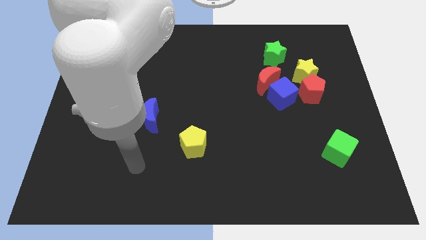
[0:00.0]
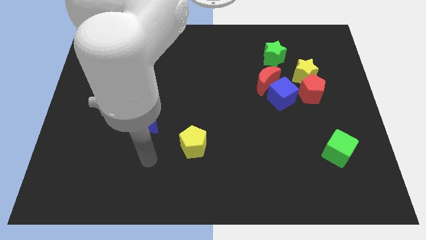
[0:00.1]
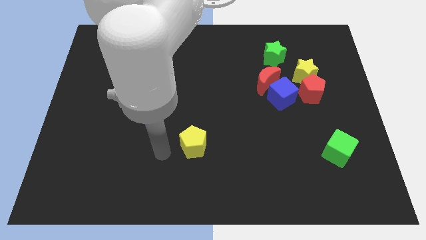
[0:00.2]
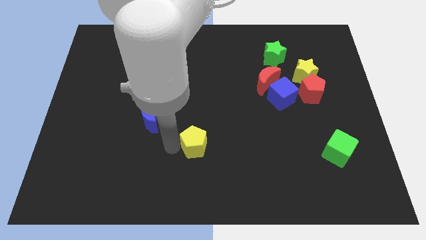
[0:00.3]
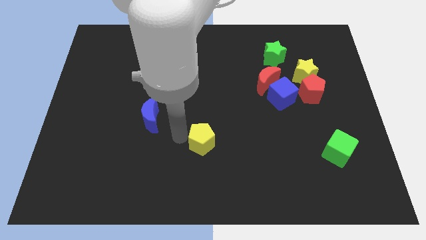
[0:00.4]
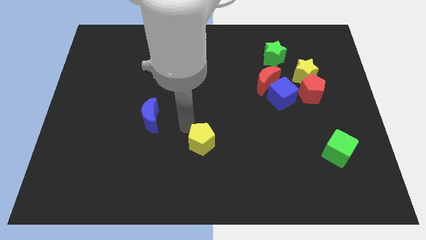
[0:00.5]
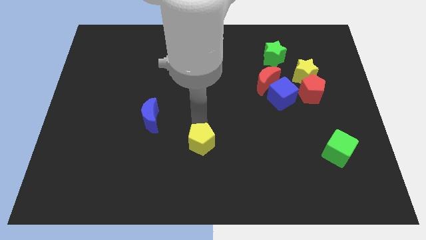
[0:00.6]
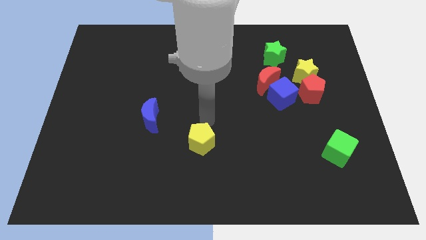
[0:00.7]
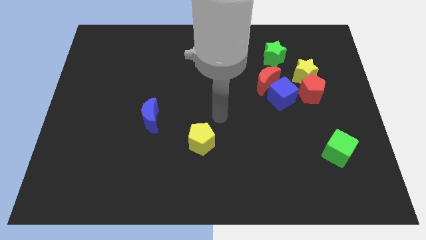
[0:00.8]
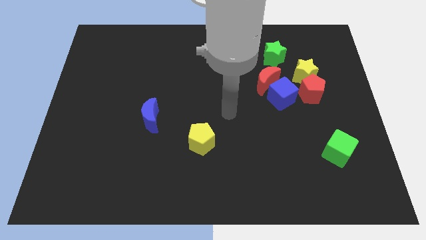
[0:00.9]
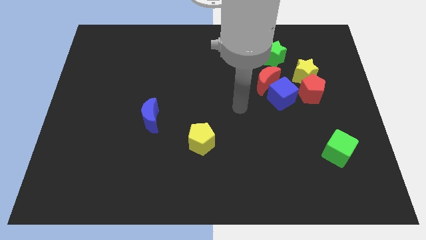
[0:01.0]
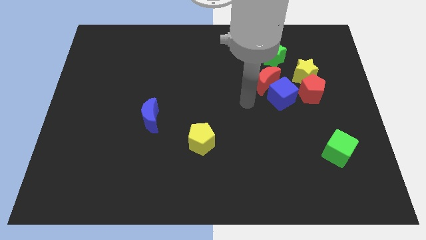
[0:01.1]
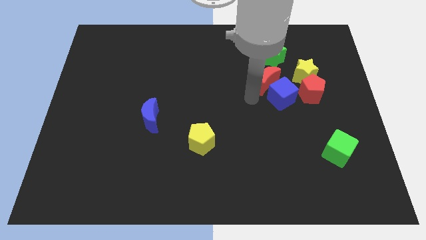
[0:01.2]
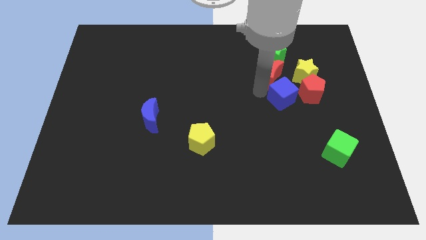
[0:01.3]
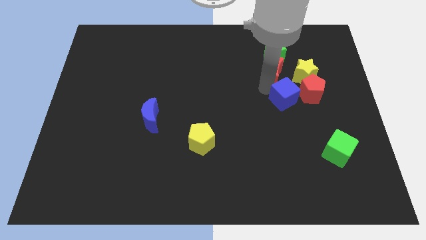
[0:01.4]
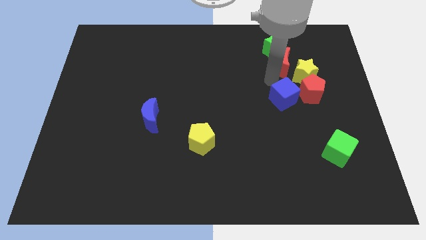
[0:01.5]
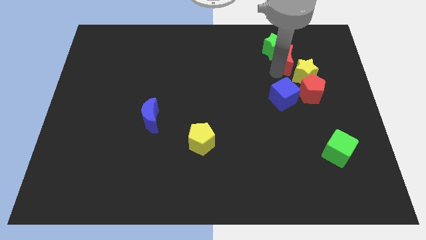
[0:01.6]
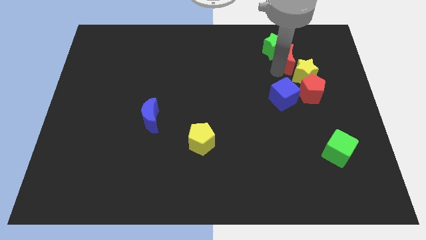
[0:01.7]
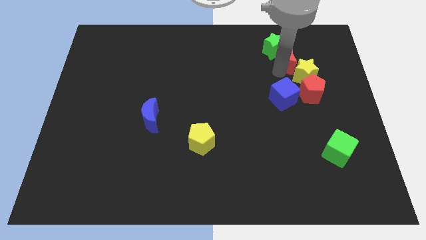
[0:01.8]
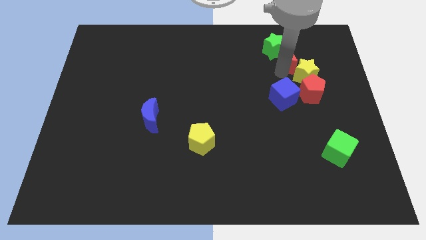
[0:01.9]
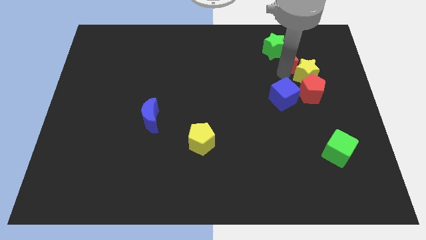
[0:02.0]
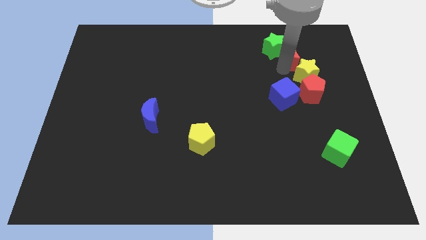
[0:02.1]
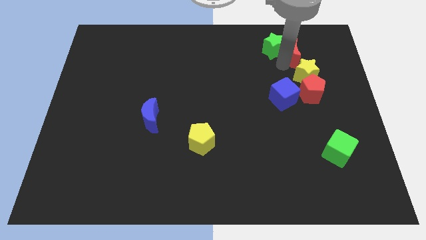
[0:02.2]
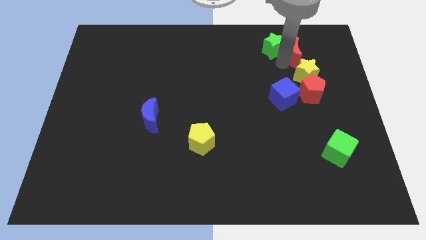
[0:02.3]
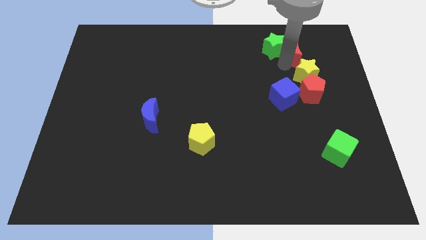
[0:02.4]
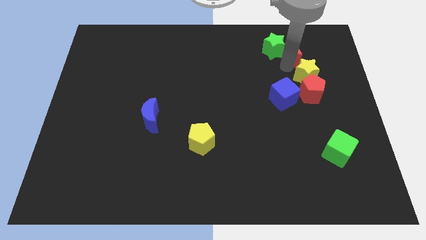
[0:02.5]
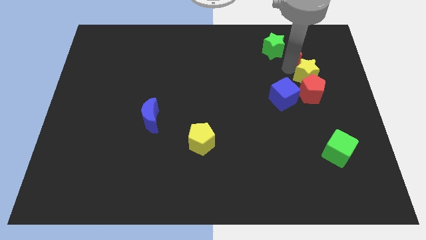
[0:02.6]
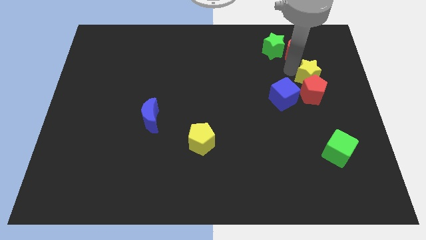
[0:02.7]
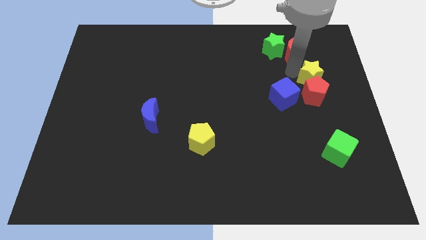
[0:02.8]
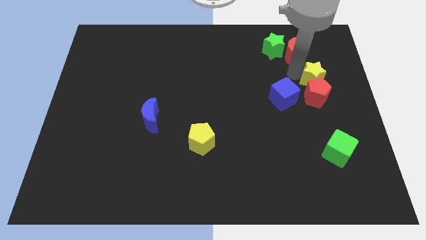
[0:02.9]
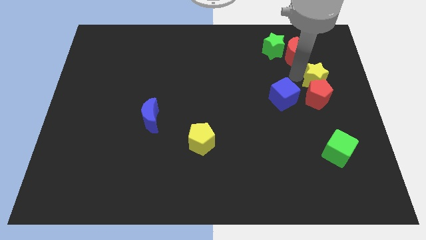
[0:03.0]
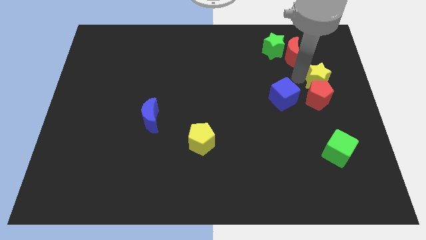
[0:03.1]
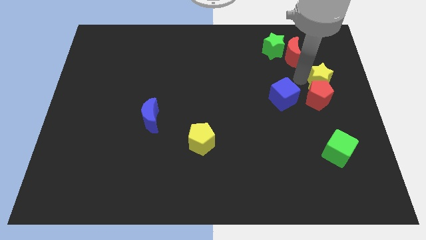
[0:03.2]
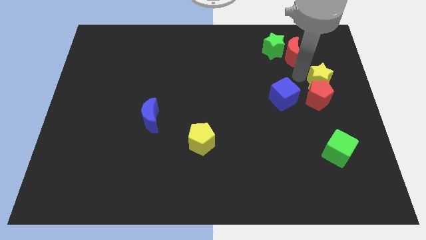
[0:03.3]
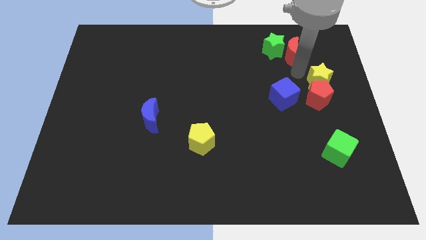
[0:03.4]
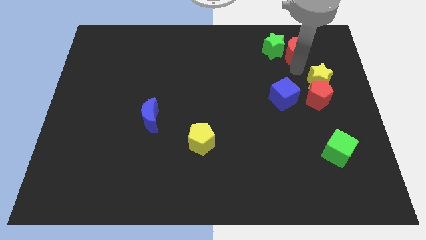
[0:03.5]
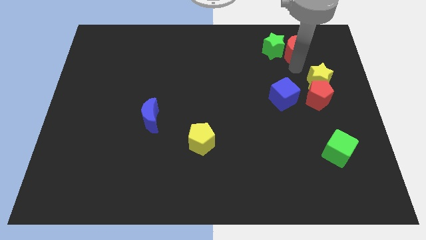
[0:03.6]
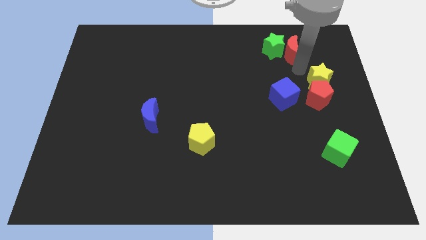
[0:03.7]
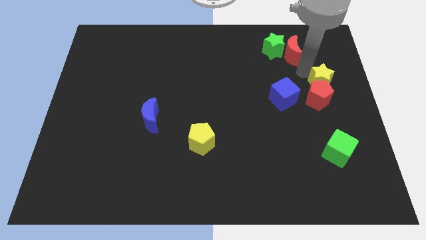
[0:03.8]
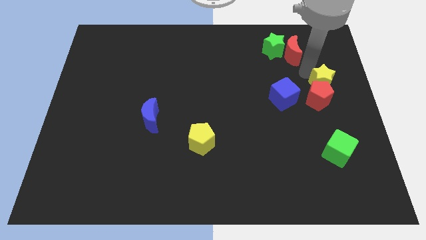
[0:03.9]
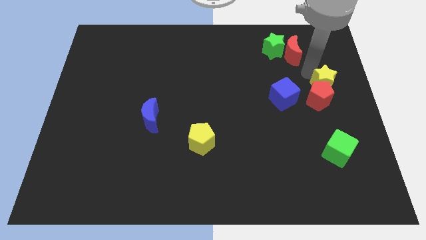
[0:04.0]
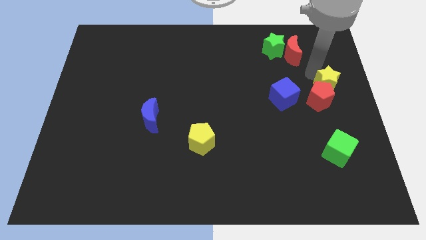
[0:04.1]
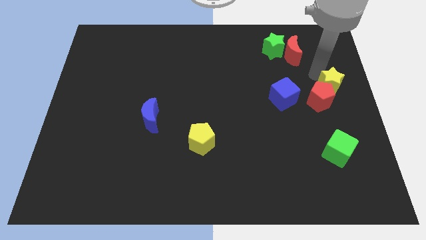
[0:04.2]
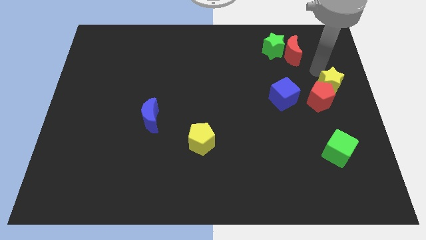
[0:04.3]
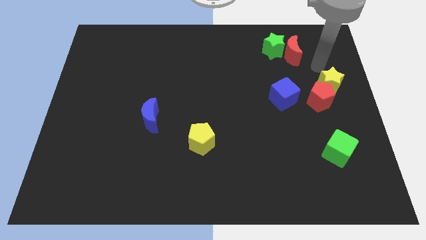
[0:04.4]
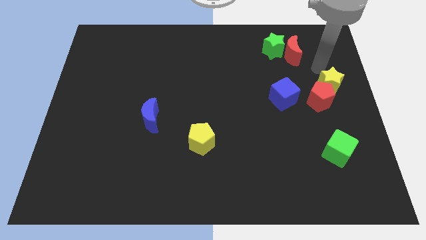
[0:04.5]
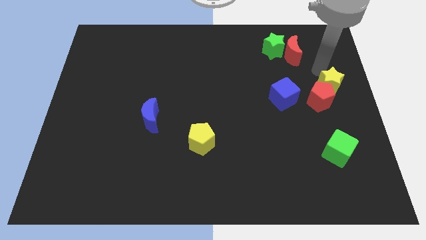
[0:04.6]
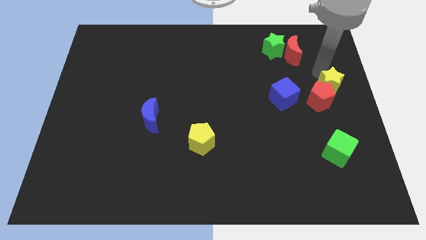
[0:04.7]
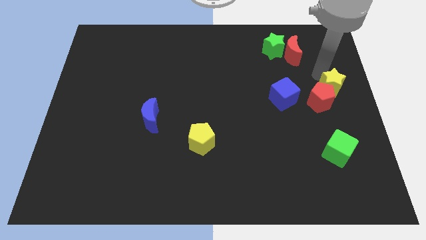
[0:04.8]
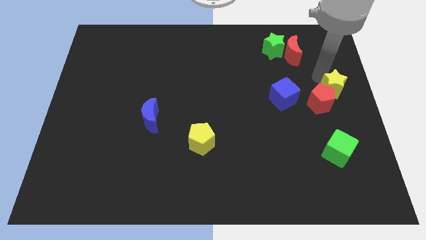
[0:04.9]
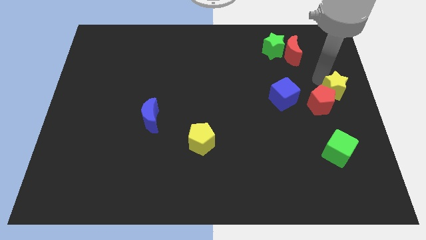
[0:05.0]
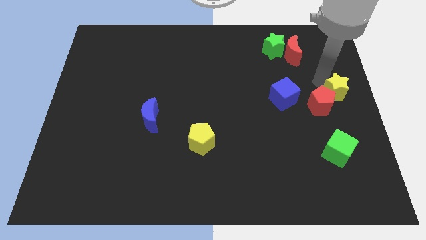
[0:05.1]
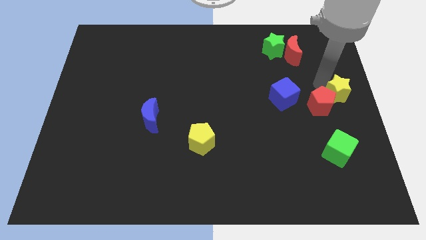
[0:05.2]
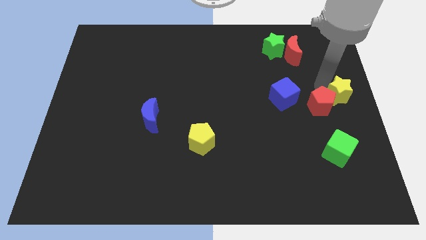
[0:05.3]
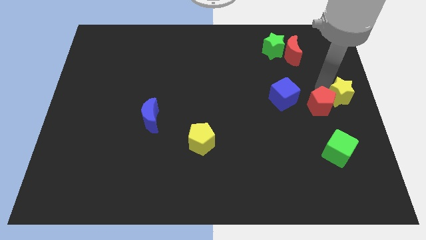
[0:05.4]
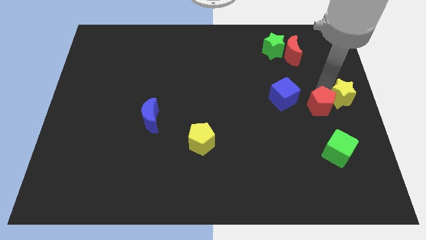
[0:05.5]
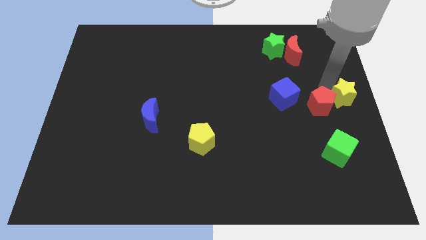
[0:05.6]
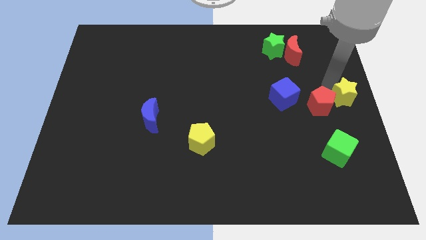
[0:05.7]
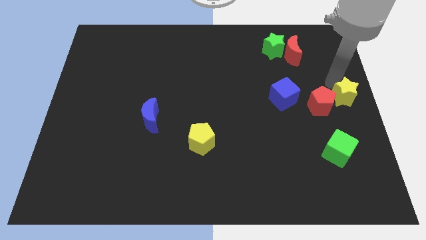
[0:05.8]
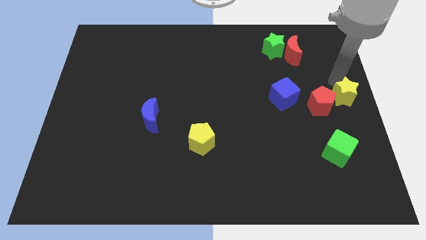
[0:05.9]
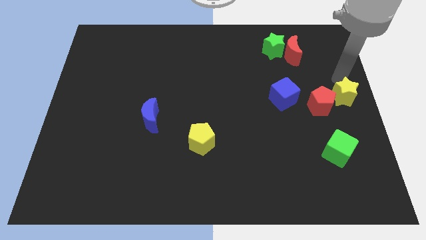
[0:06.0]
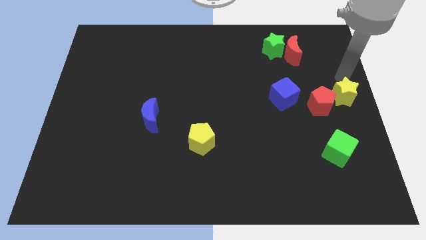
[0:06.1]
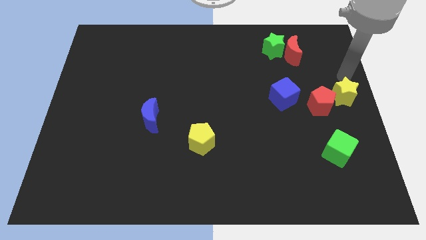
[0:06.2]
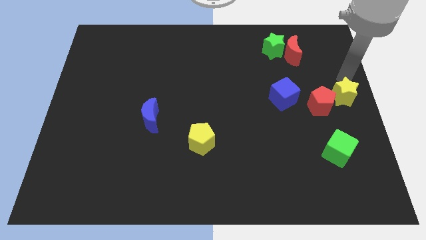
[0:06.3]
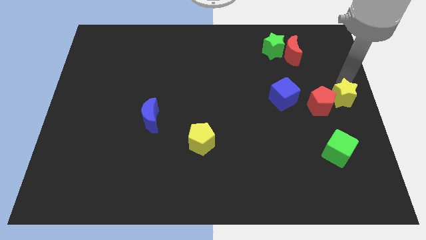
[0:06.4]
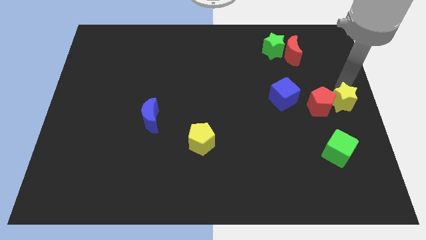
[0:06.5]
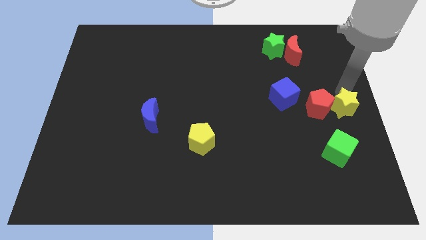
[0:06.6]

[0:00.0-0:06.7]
slightly move the yellow star downwards

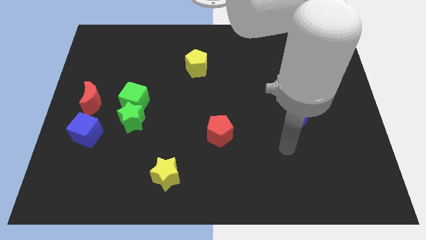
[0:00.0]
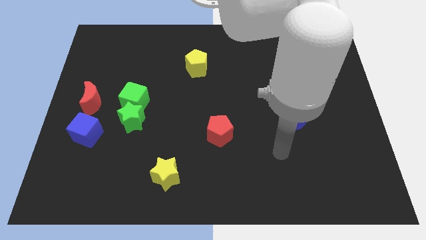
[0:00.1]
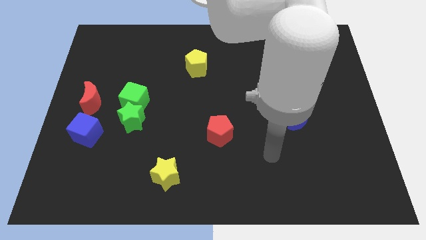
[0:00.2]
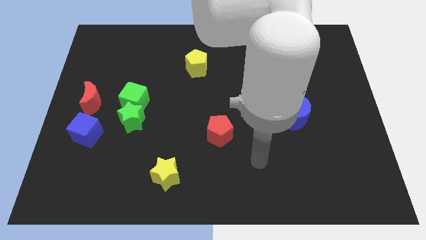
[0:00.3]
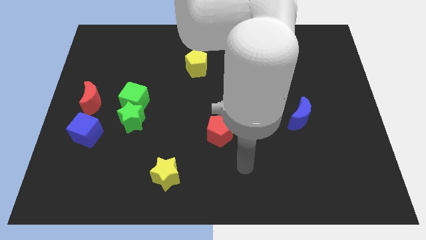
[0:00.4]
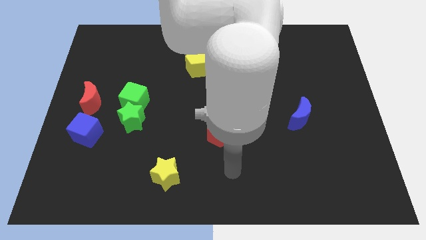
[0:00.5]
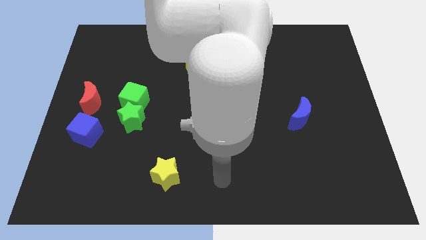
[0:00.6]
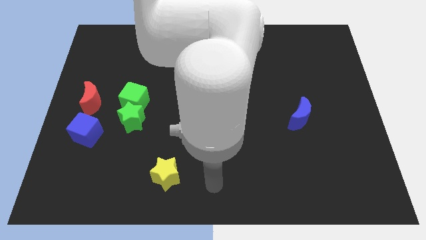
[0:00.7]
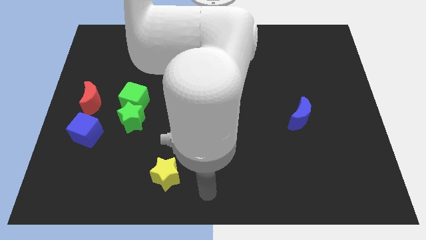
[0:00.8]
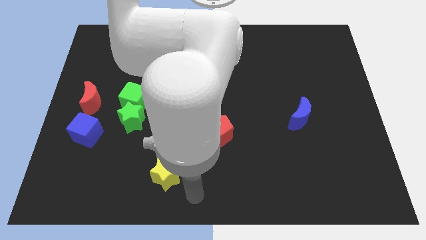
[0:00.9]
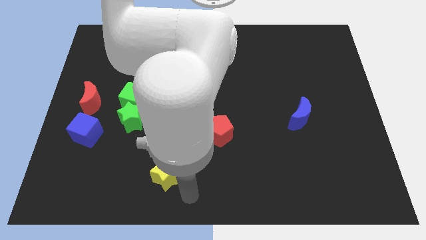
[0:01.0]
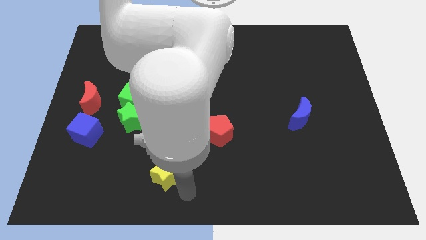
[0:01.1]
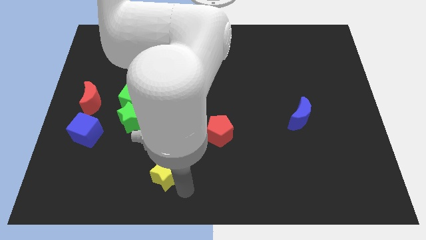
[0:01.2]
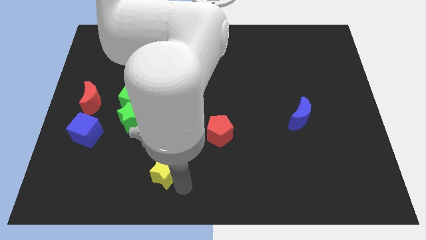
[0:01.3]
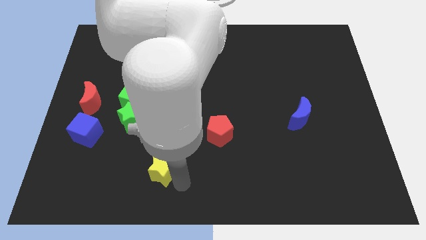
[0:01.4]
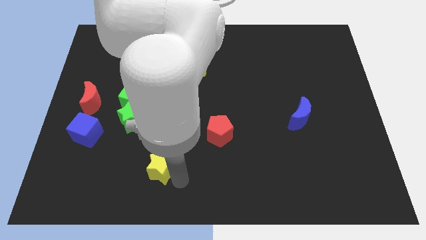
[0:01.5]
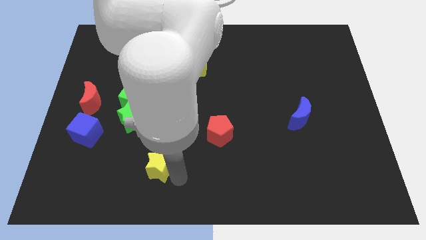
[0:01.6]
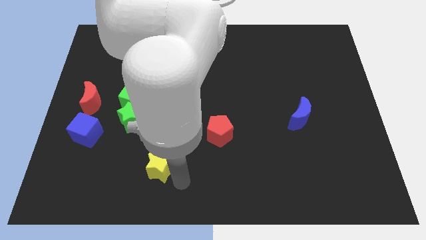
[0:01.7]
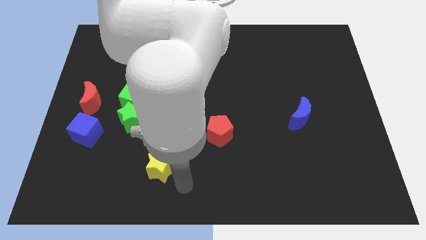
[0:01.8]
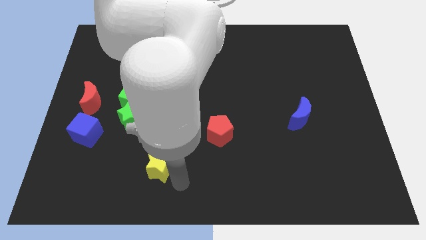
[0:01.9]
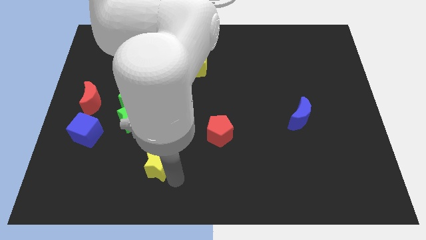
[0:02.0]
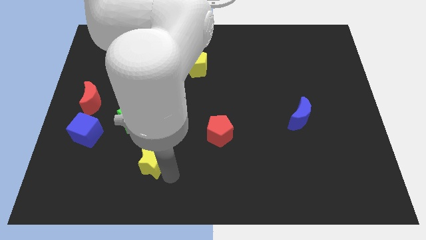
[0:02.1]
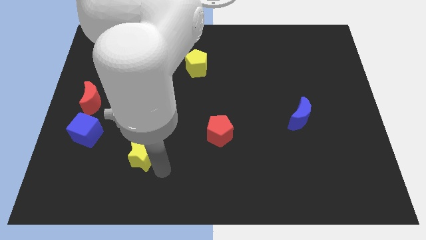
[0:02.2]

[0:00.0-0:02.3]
slightly slide the yellow star up and to the left diagonally
